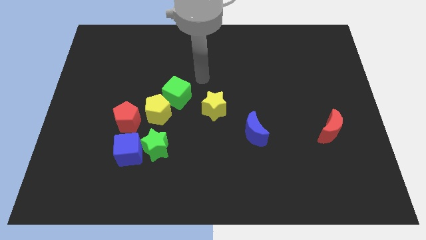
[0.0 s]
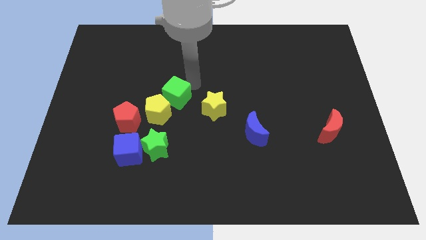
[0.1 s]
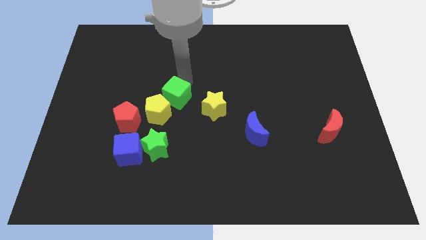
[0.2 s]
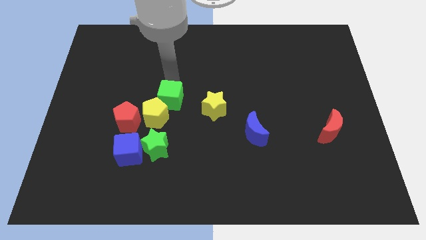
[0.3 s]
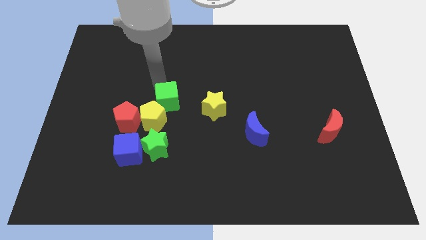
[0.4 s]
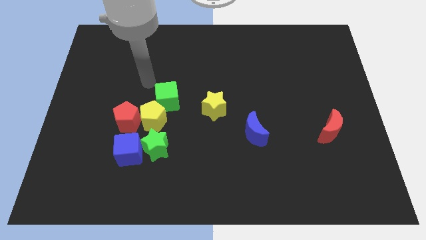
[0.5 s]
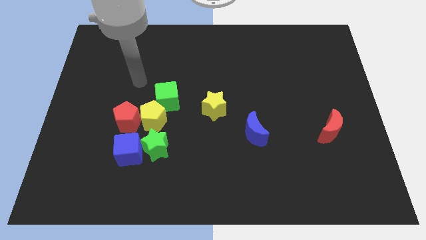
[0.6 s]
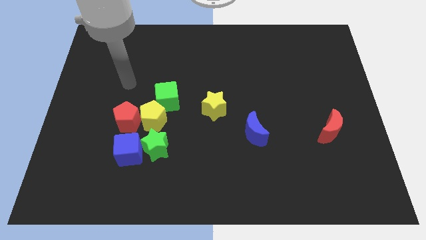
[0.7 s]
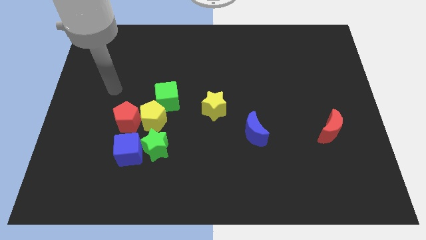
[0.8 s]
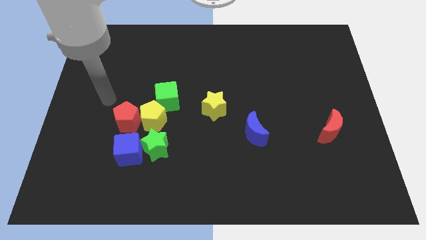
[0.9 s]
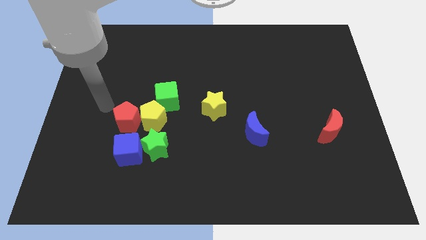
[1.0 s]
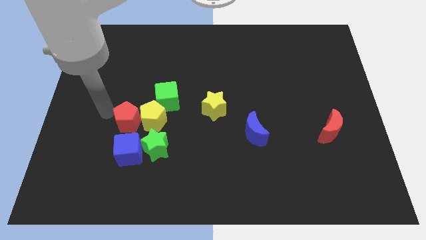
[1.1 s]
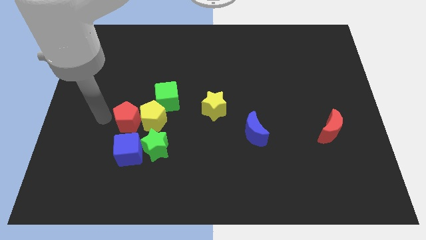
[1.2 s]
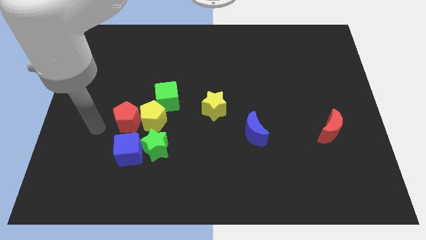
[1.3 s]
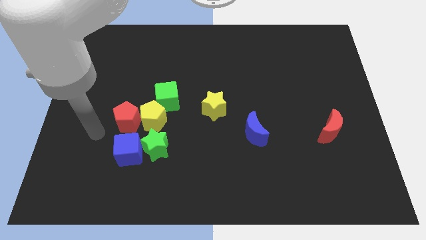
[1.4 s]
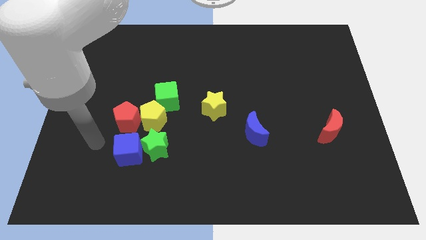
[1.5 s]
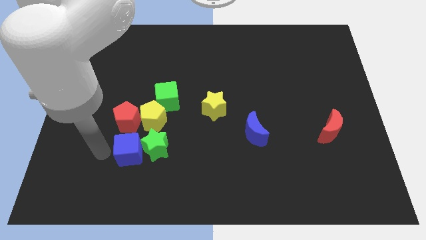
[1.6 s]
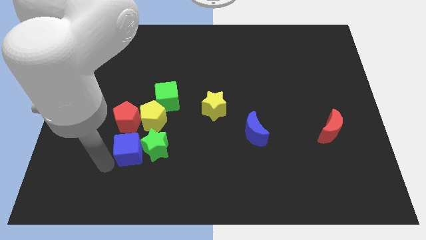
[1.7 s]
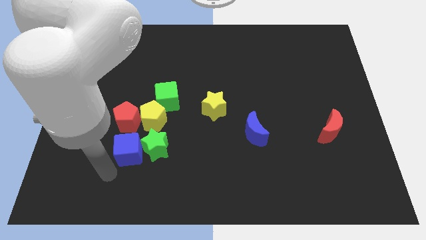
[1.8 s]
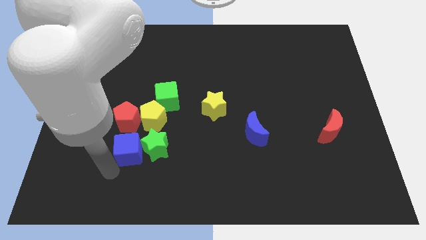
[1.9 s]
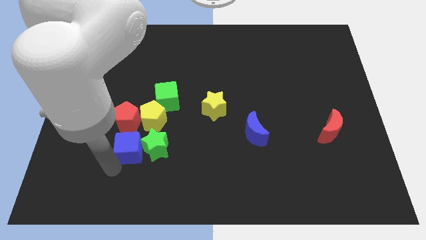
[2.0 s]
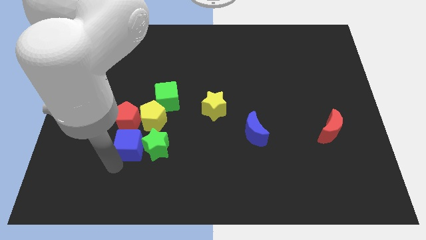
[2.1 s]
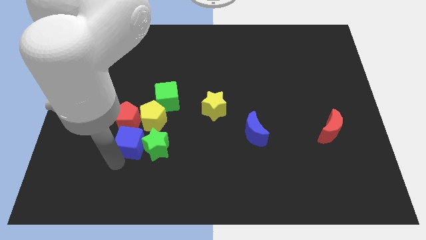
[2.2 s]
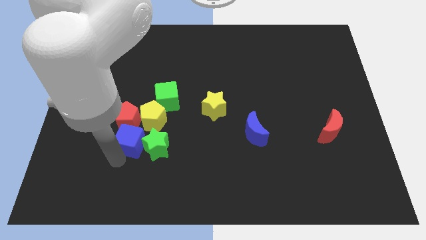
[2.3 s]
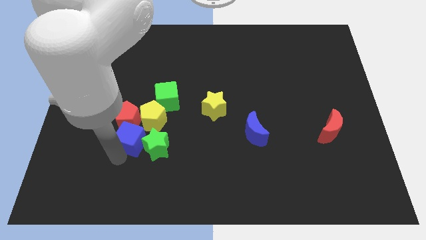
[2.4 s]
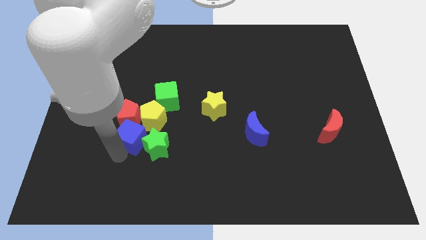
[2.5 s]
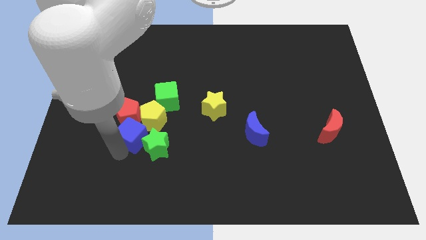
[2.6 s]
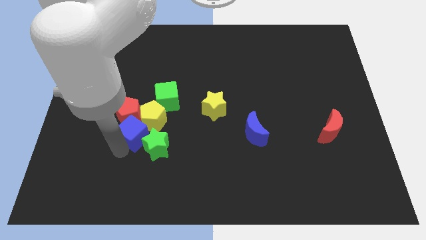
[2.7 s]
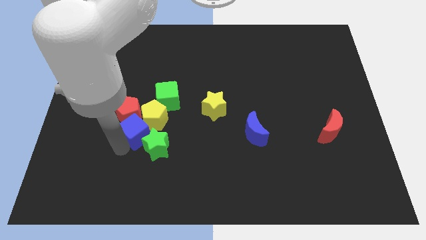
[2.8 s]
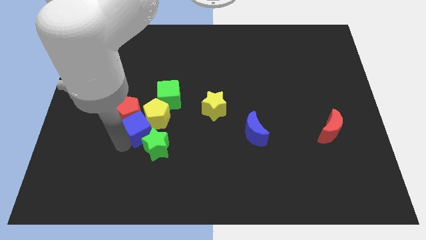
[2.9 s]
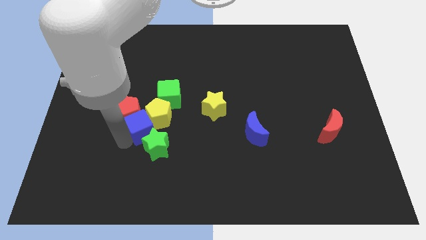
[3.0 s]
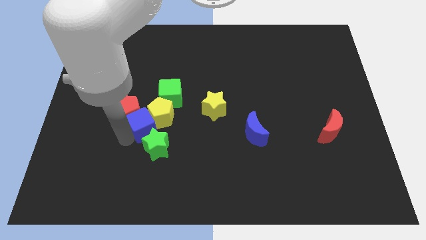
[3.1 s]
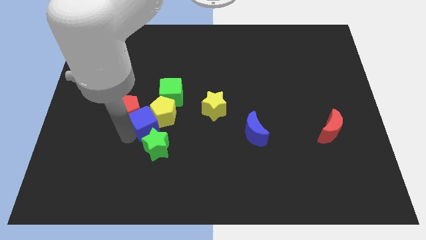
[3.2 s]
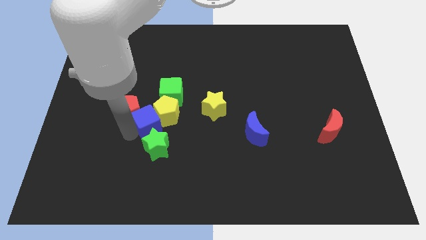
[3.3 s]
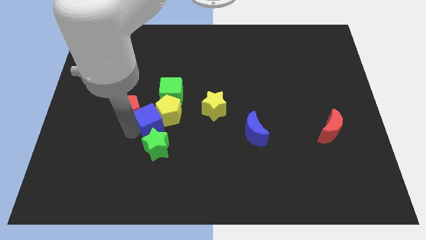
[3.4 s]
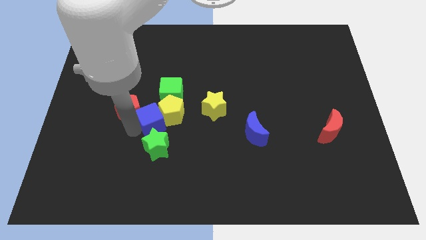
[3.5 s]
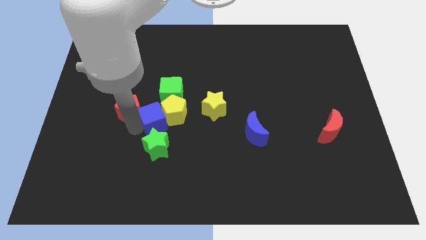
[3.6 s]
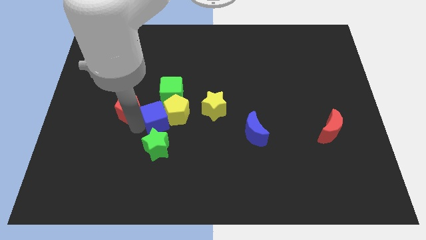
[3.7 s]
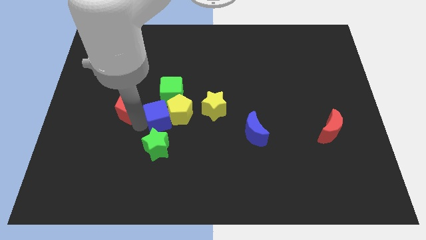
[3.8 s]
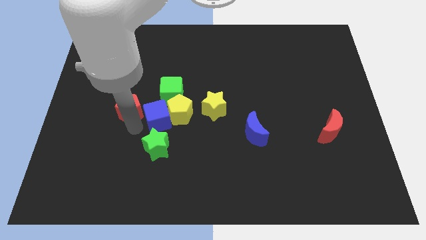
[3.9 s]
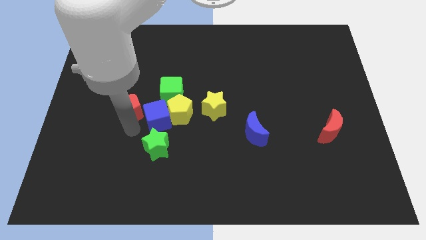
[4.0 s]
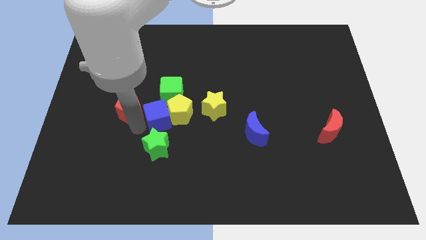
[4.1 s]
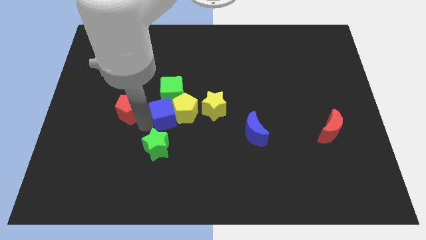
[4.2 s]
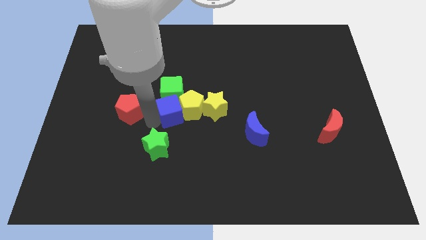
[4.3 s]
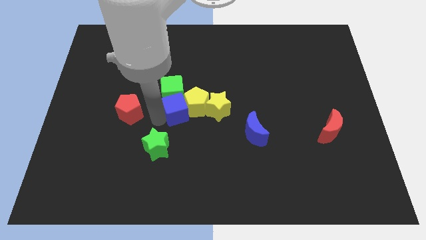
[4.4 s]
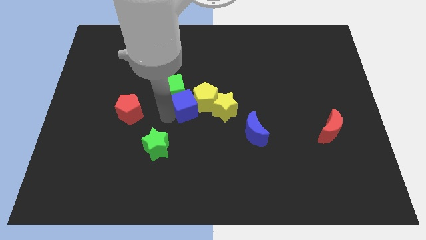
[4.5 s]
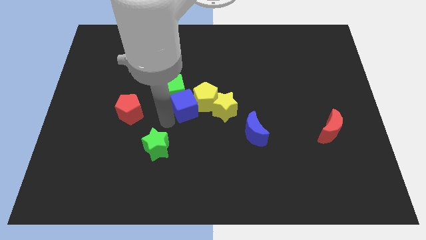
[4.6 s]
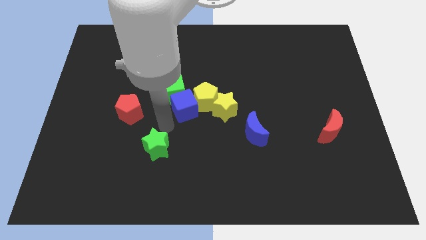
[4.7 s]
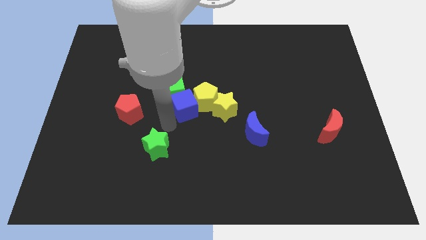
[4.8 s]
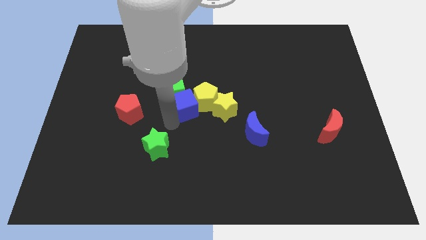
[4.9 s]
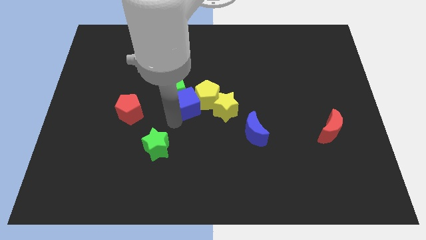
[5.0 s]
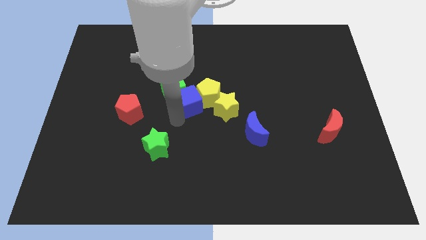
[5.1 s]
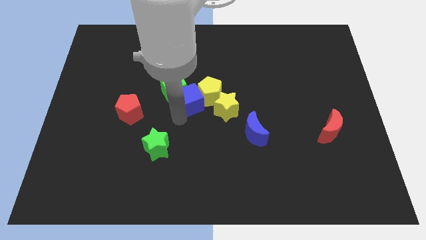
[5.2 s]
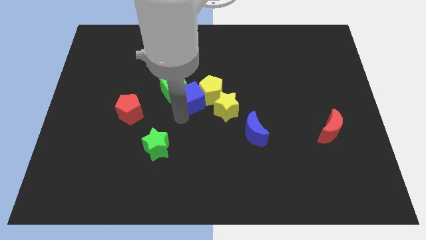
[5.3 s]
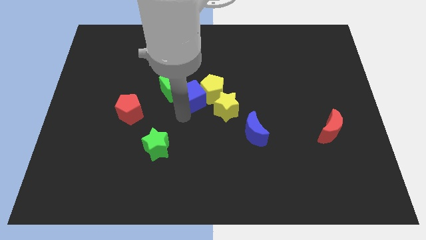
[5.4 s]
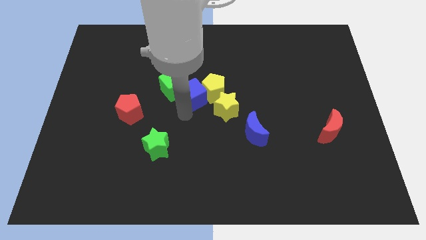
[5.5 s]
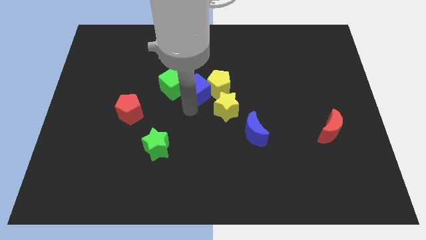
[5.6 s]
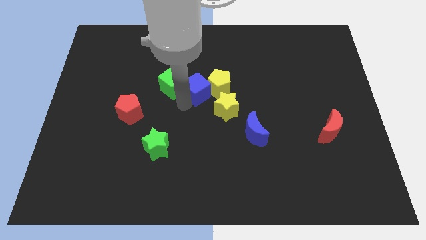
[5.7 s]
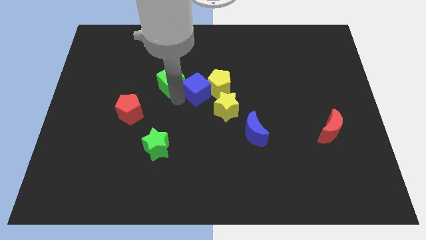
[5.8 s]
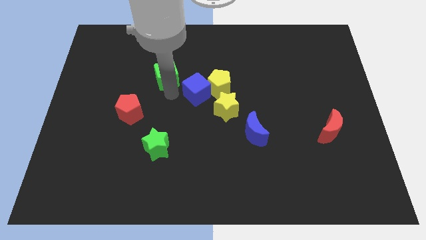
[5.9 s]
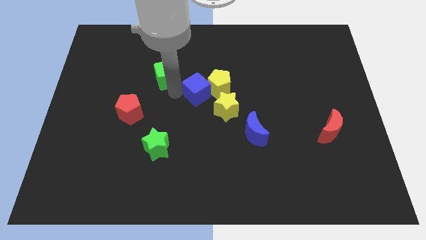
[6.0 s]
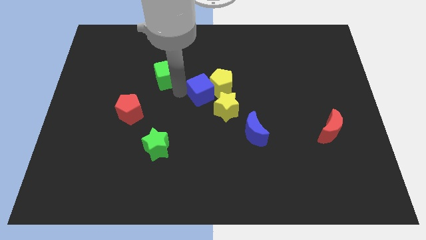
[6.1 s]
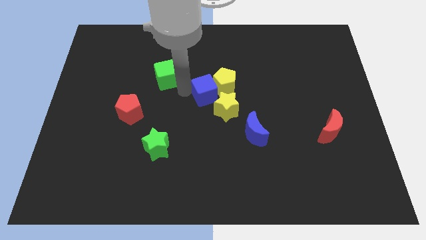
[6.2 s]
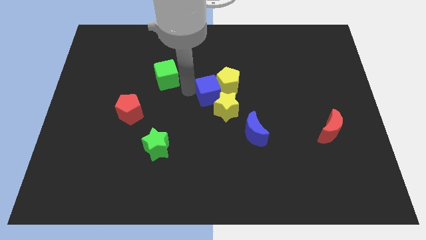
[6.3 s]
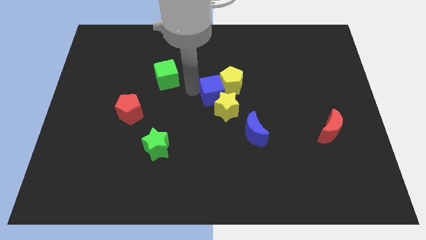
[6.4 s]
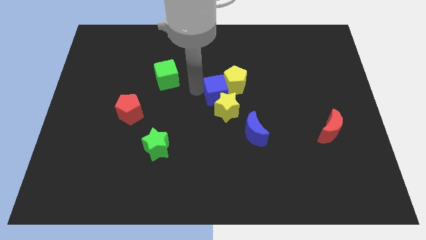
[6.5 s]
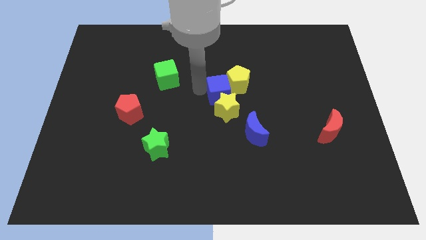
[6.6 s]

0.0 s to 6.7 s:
push the blue cube to the top right of the yellow star

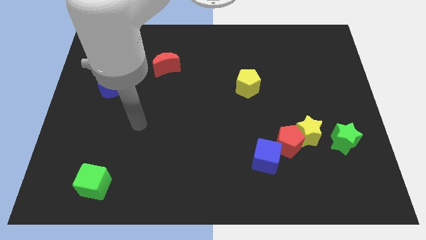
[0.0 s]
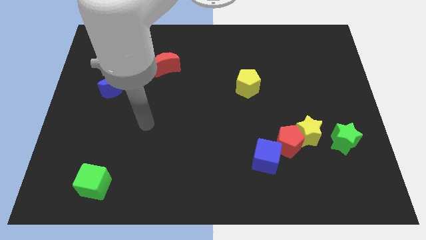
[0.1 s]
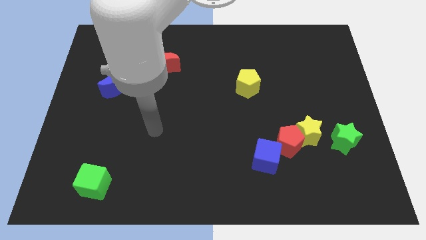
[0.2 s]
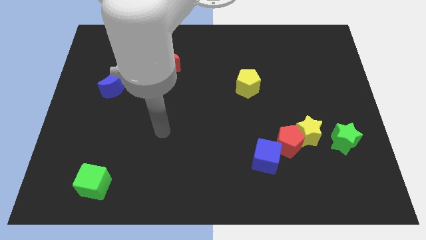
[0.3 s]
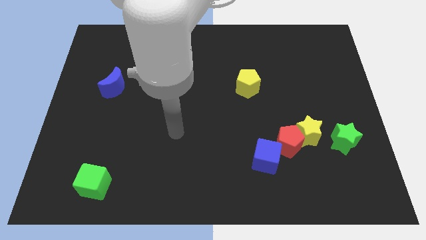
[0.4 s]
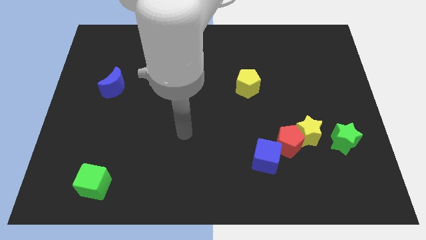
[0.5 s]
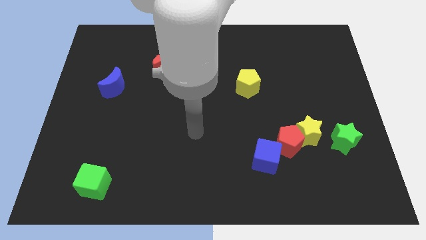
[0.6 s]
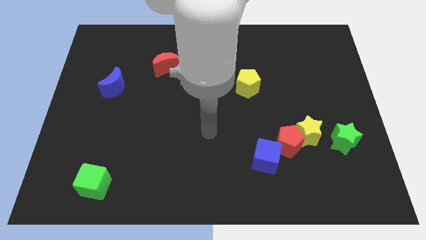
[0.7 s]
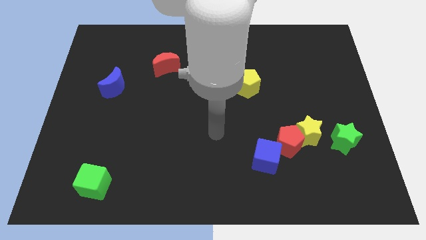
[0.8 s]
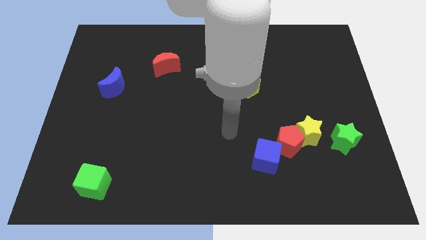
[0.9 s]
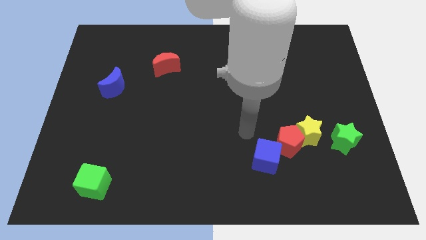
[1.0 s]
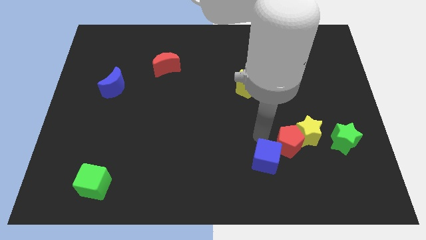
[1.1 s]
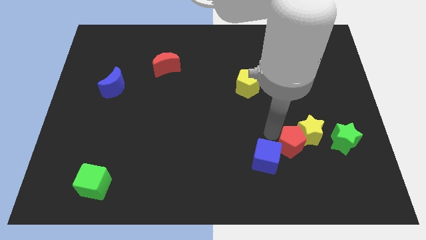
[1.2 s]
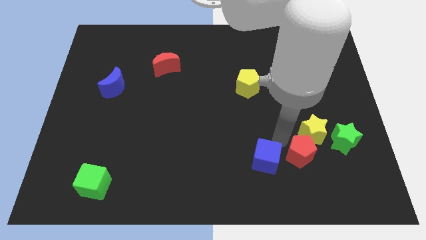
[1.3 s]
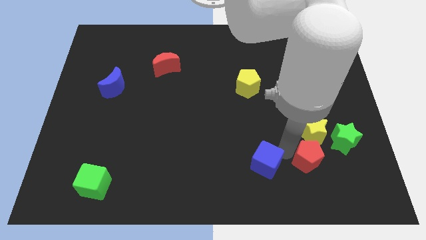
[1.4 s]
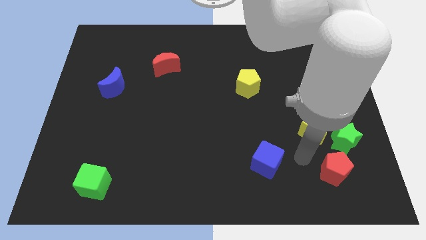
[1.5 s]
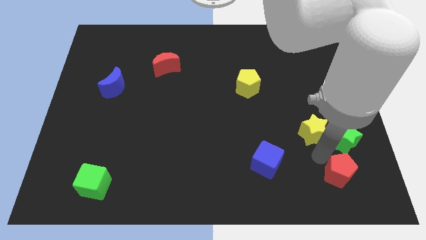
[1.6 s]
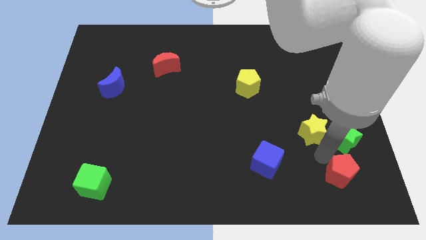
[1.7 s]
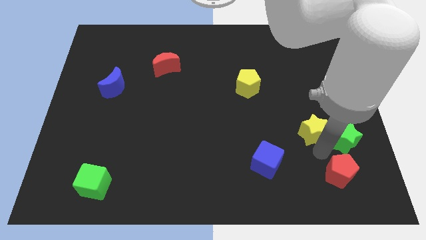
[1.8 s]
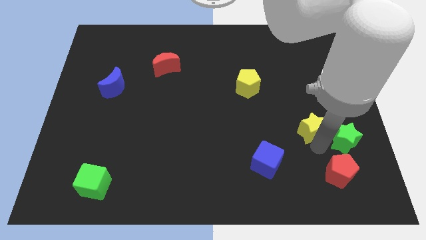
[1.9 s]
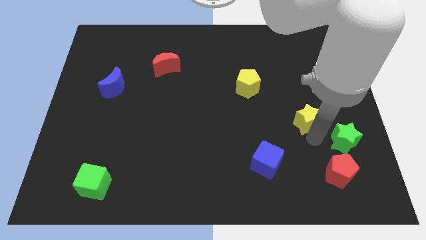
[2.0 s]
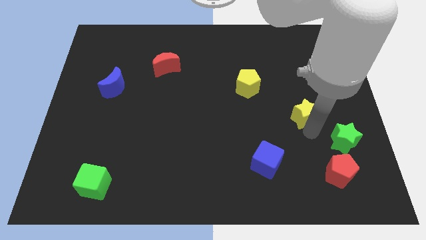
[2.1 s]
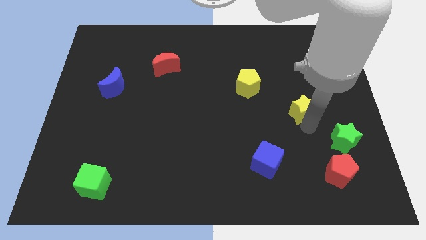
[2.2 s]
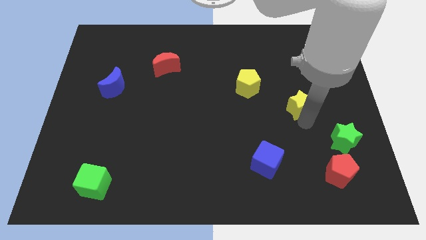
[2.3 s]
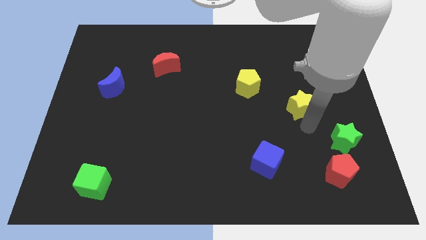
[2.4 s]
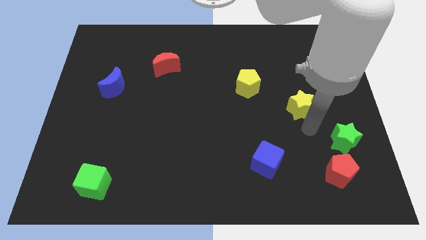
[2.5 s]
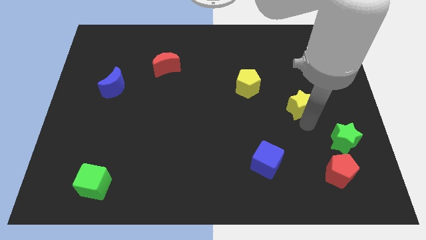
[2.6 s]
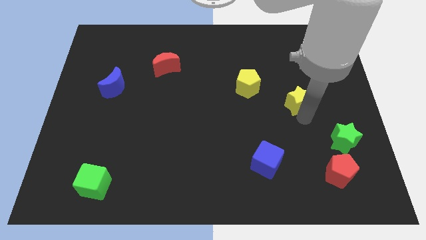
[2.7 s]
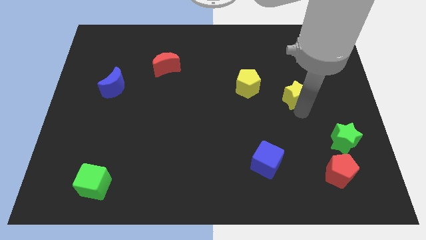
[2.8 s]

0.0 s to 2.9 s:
push the yellow star to the right of the yellow pentagon
